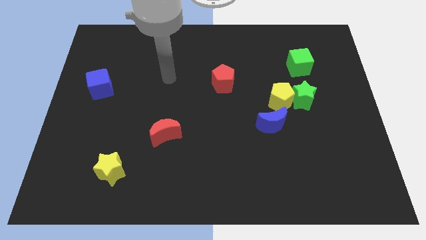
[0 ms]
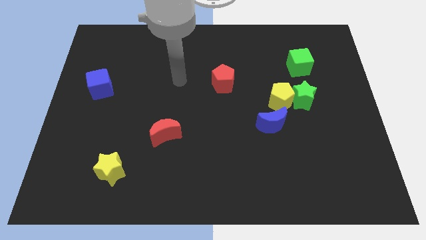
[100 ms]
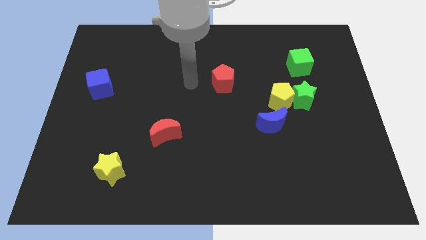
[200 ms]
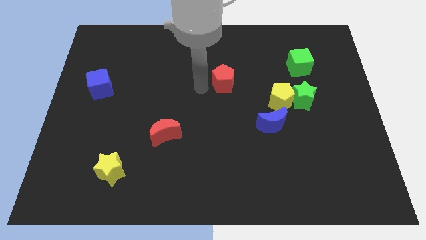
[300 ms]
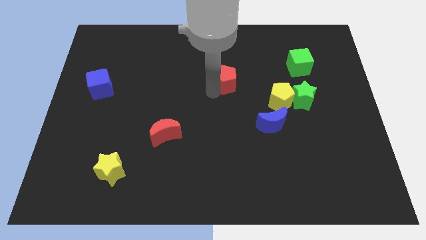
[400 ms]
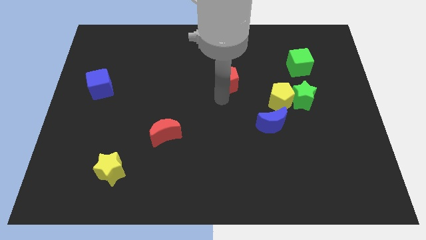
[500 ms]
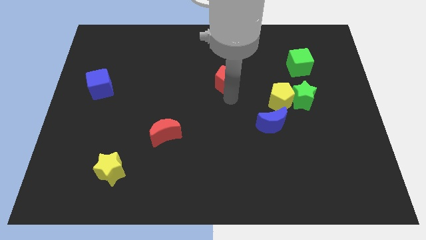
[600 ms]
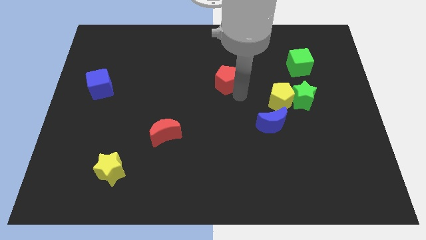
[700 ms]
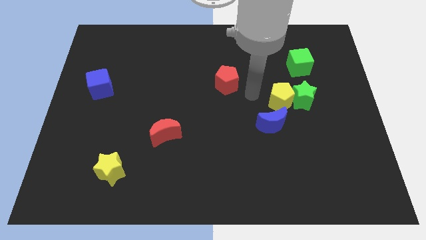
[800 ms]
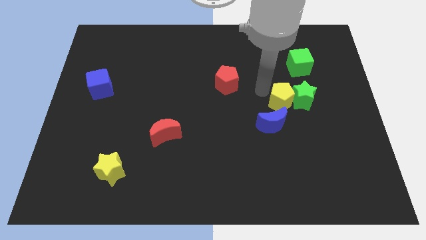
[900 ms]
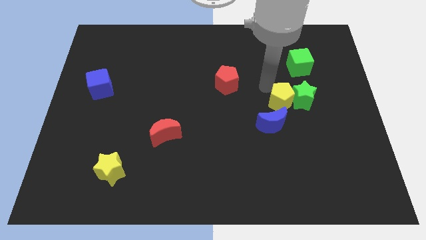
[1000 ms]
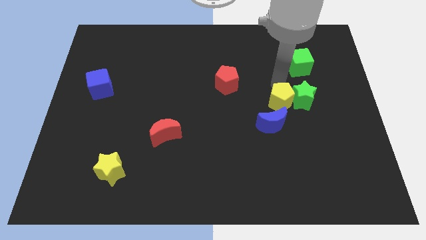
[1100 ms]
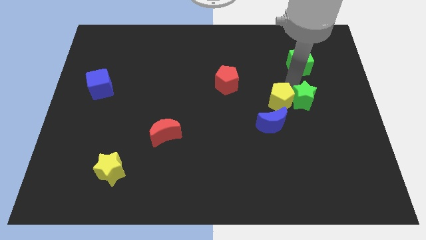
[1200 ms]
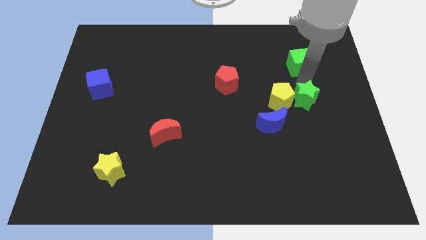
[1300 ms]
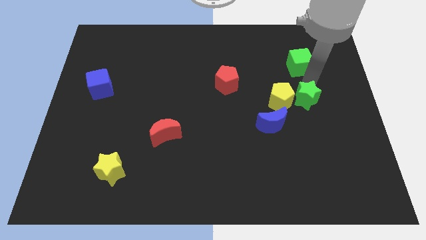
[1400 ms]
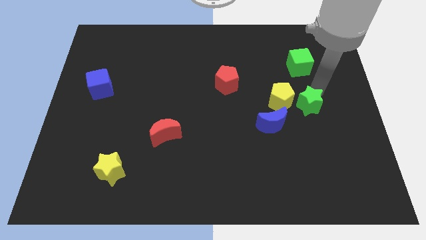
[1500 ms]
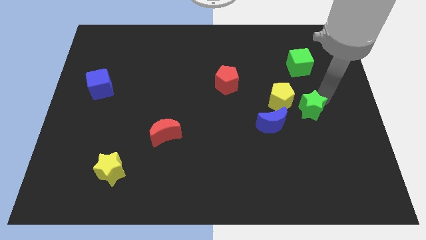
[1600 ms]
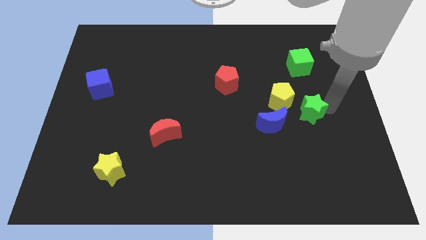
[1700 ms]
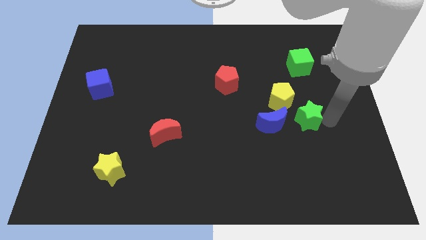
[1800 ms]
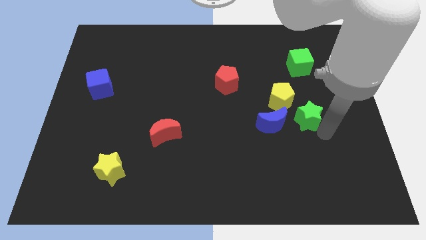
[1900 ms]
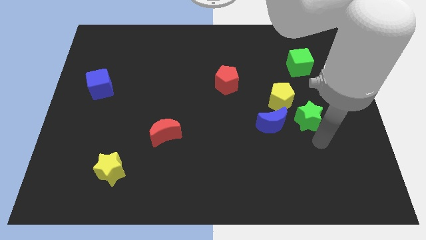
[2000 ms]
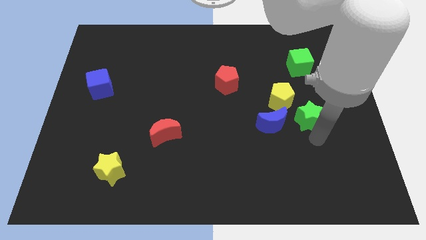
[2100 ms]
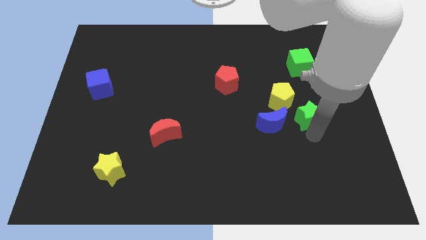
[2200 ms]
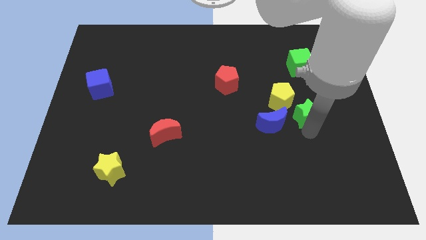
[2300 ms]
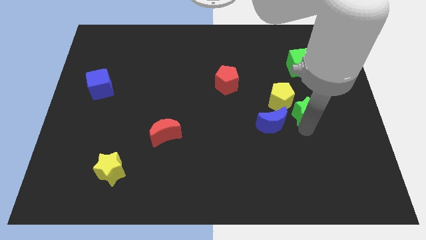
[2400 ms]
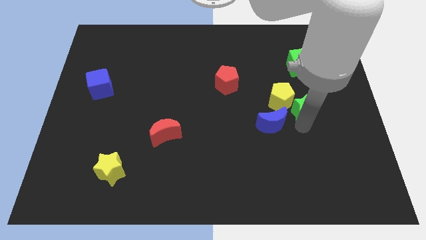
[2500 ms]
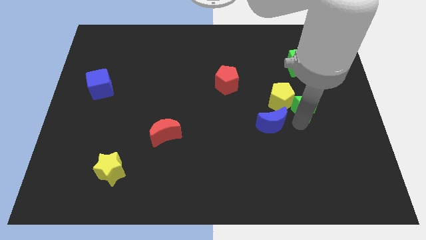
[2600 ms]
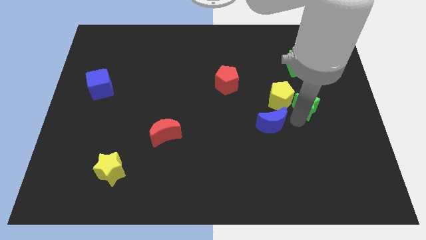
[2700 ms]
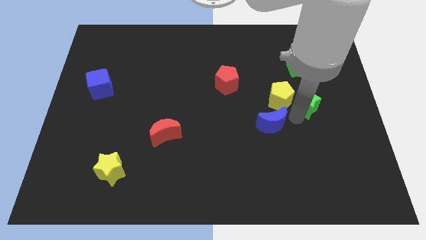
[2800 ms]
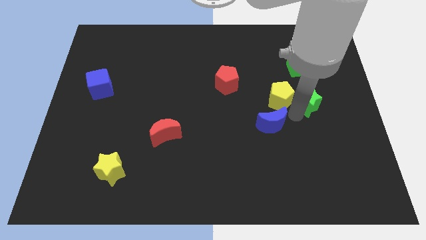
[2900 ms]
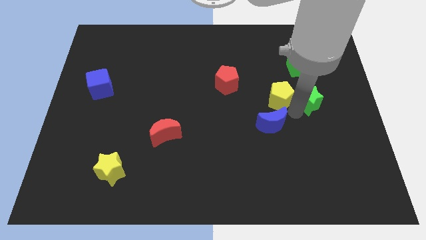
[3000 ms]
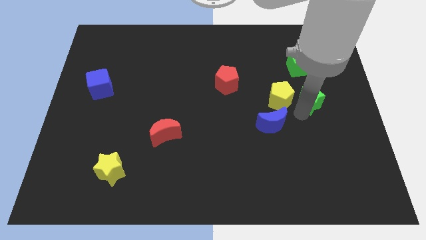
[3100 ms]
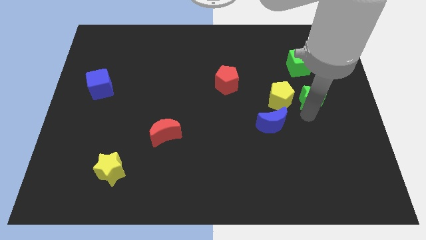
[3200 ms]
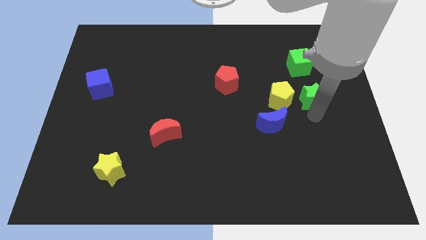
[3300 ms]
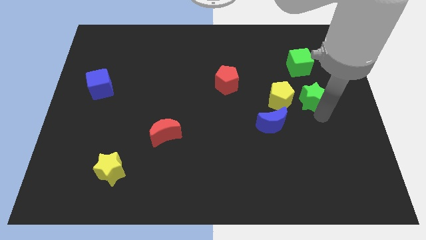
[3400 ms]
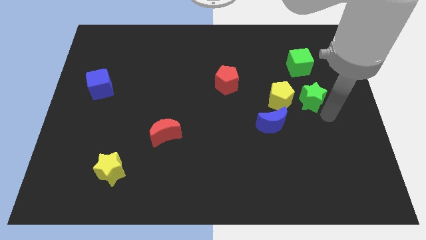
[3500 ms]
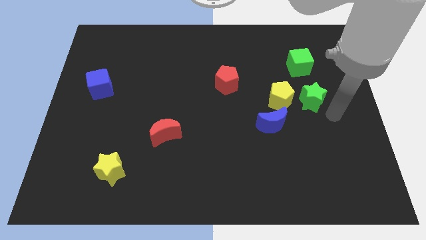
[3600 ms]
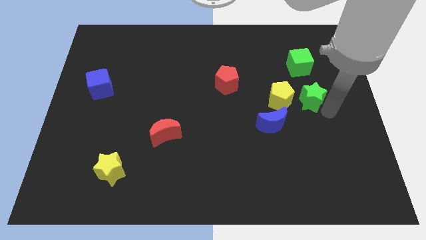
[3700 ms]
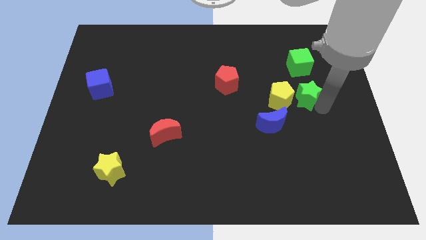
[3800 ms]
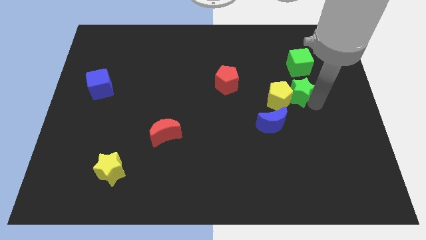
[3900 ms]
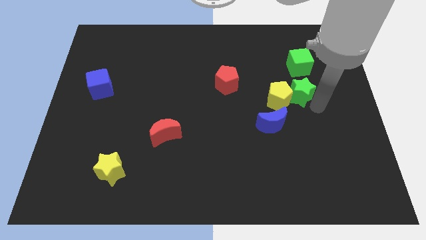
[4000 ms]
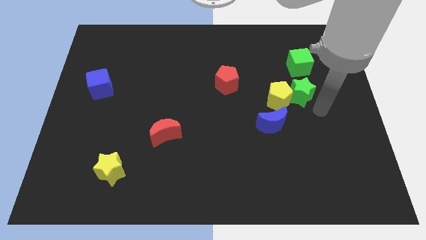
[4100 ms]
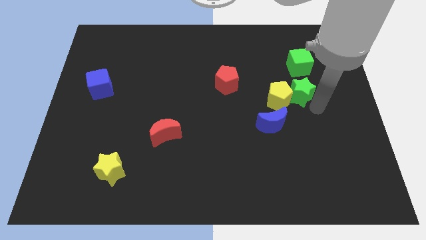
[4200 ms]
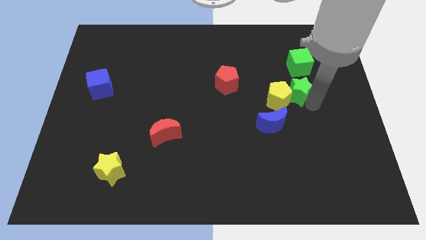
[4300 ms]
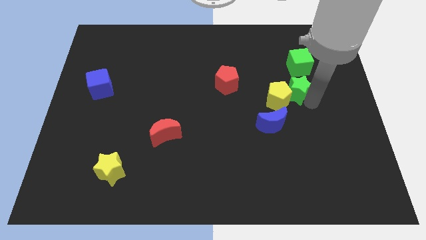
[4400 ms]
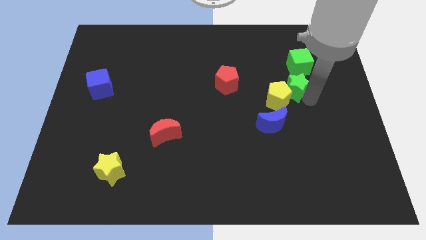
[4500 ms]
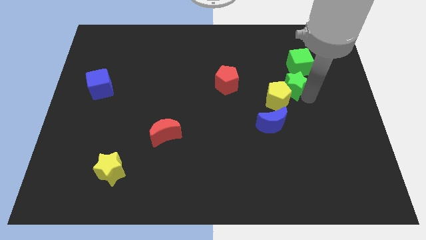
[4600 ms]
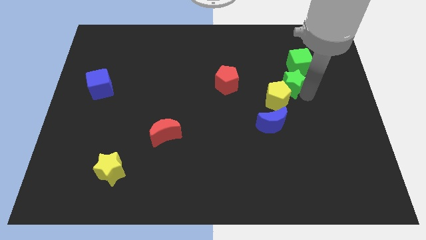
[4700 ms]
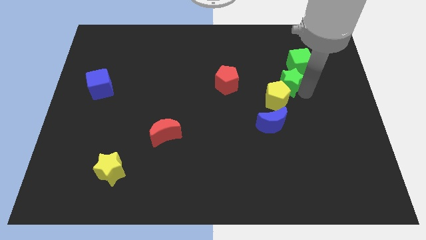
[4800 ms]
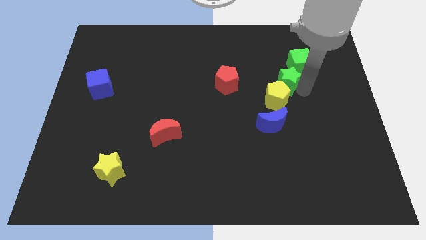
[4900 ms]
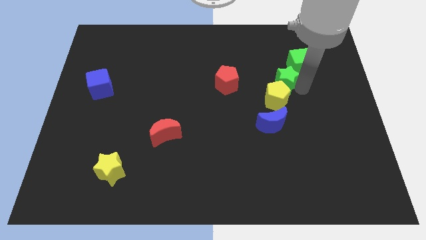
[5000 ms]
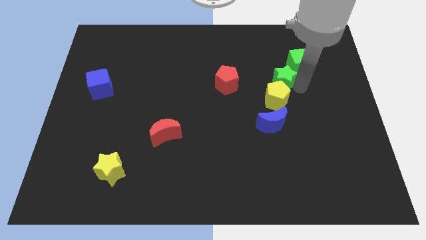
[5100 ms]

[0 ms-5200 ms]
move the green star diagonally up and to the left a little

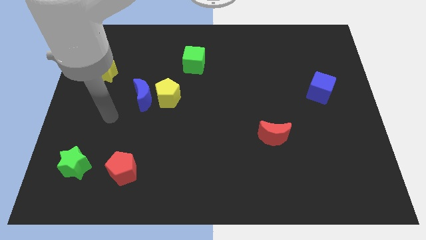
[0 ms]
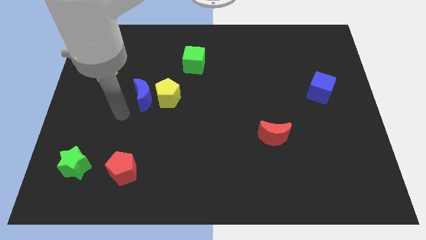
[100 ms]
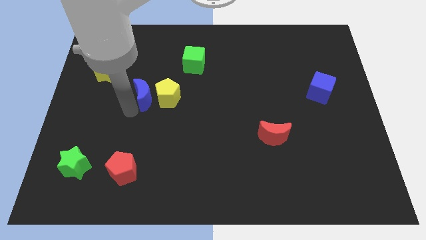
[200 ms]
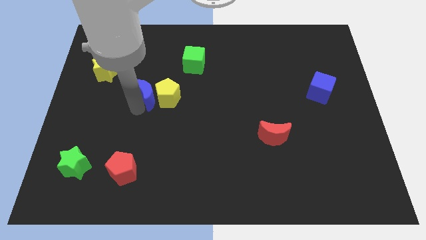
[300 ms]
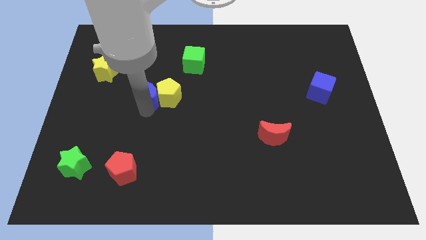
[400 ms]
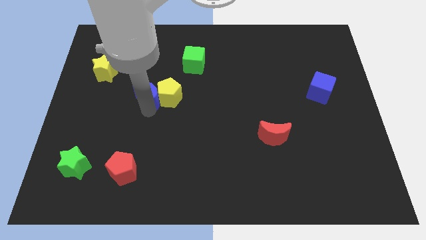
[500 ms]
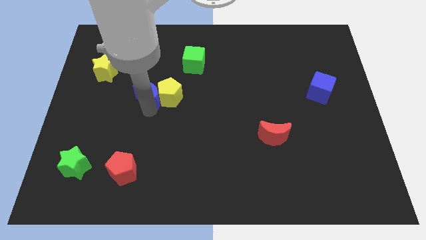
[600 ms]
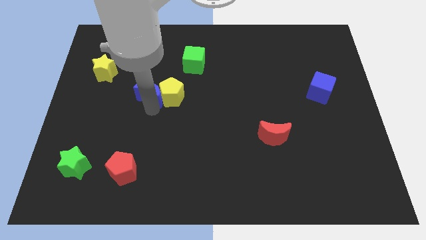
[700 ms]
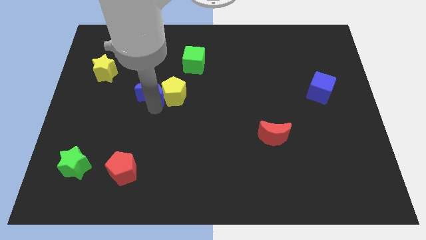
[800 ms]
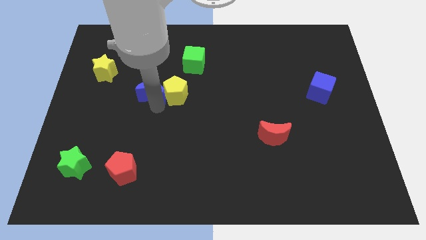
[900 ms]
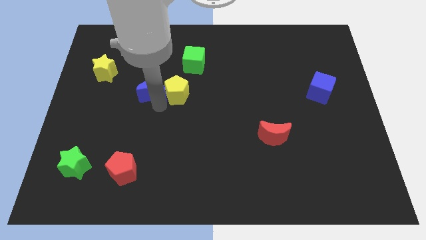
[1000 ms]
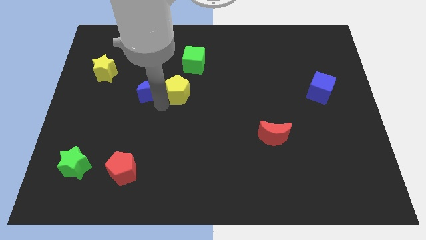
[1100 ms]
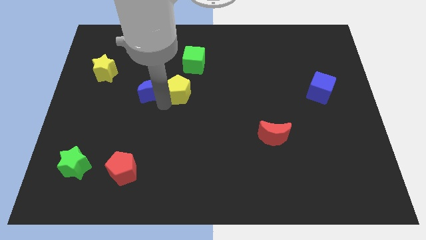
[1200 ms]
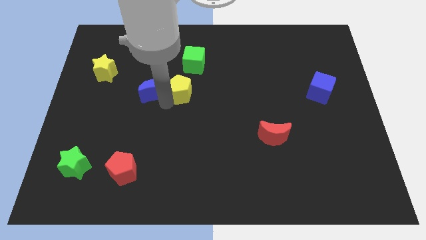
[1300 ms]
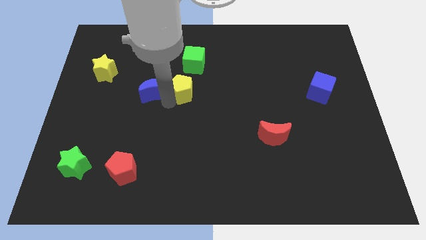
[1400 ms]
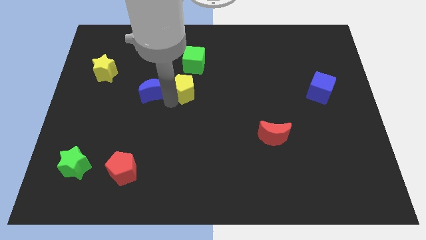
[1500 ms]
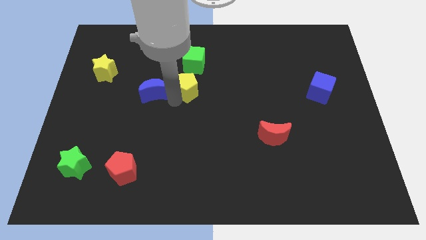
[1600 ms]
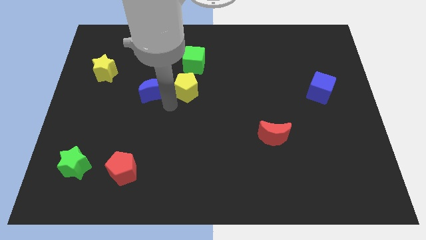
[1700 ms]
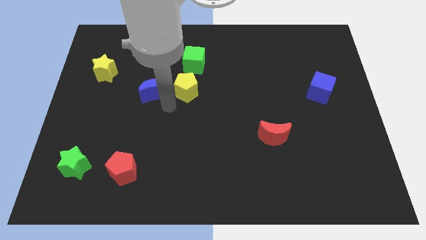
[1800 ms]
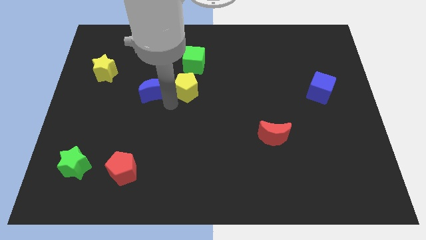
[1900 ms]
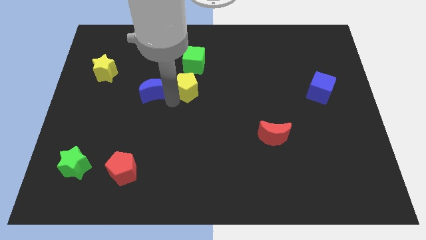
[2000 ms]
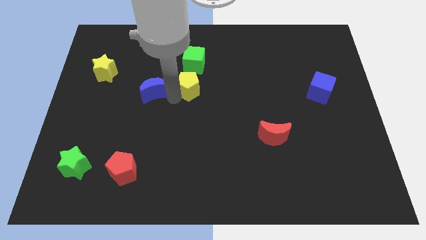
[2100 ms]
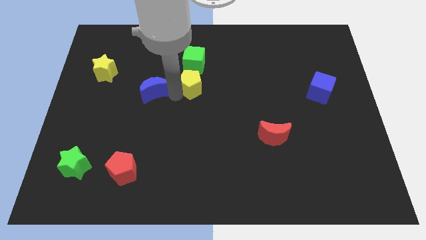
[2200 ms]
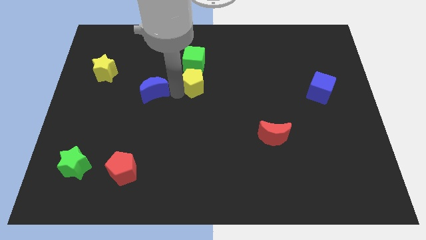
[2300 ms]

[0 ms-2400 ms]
move the yellow pentagon somewhat upwards and right

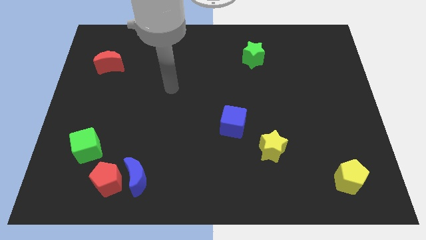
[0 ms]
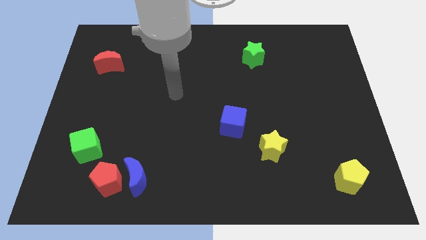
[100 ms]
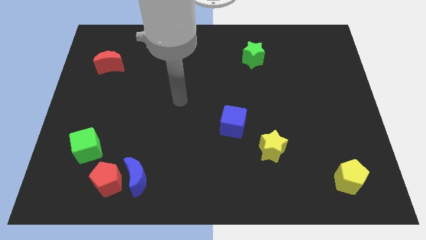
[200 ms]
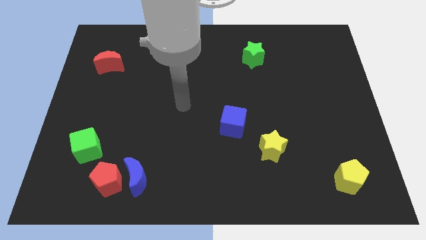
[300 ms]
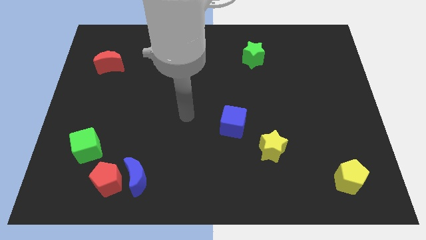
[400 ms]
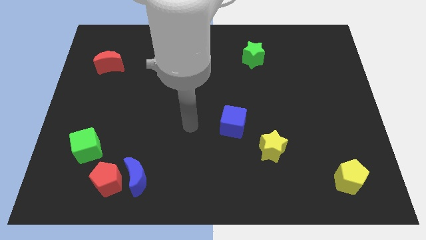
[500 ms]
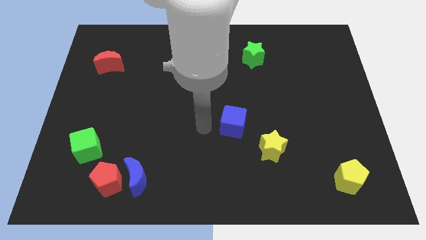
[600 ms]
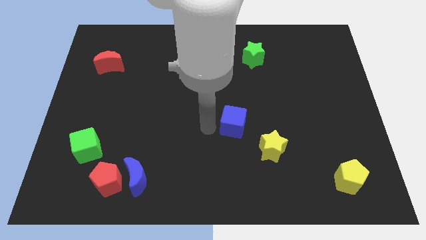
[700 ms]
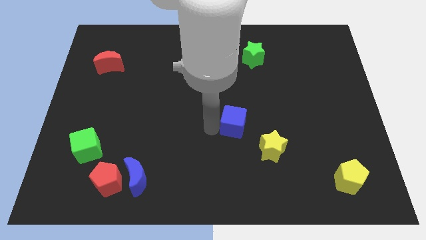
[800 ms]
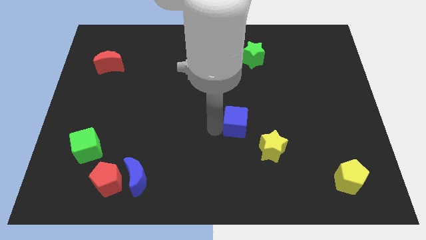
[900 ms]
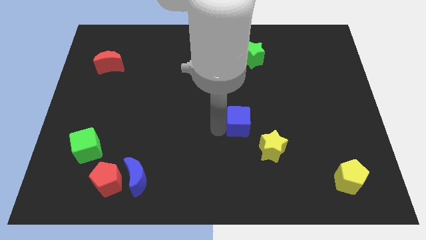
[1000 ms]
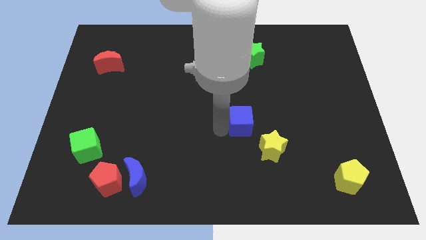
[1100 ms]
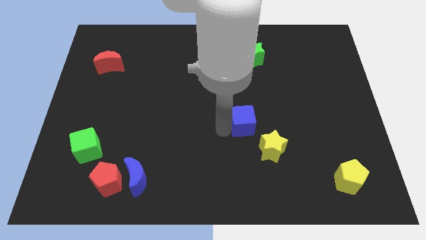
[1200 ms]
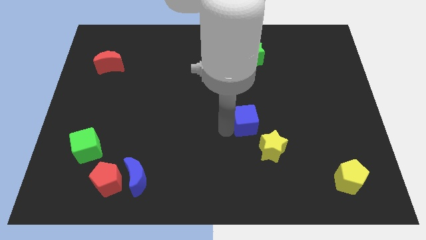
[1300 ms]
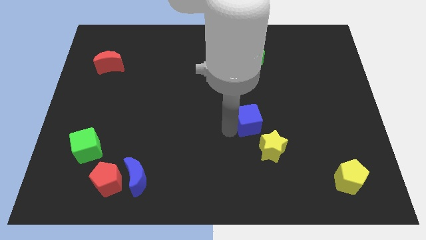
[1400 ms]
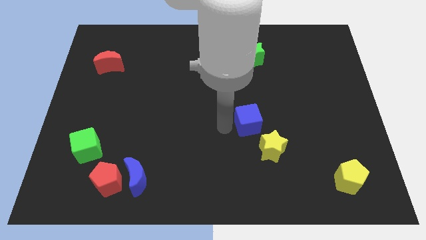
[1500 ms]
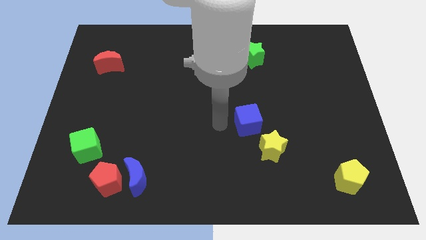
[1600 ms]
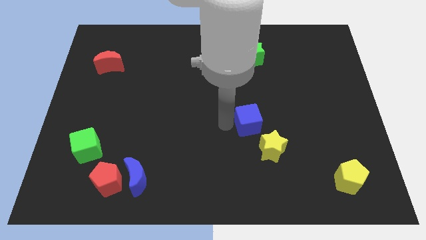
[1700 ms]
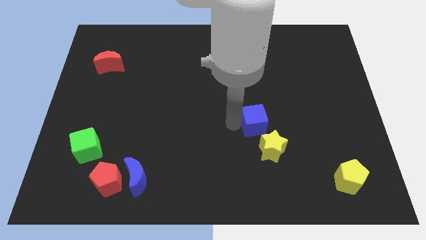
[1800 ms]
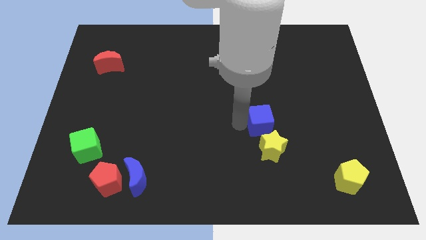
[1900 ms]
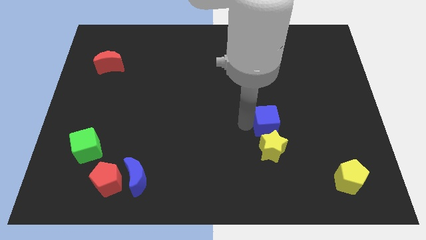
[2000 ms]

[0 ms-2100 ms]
slide the blue cube slightly to the right
